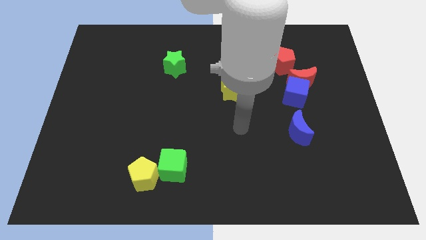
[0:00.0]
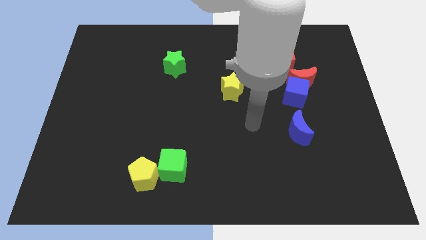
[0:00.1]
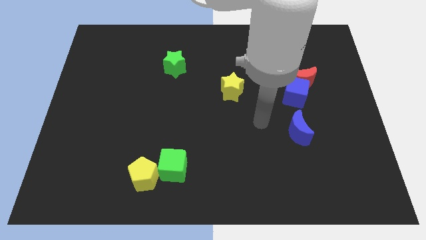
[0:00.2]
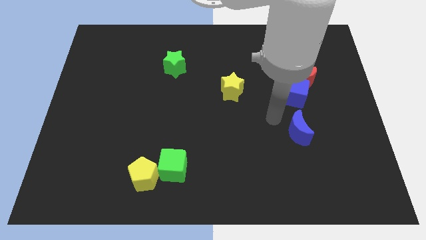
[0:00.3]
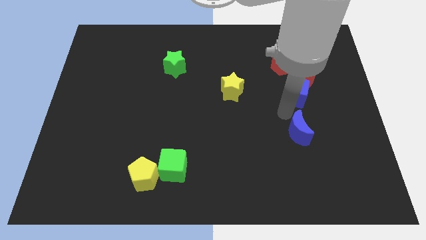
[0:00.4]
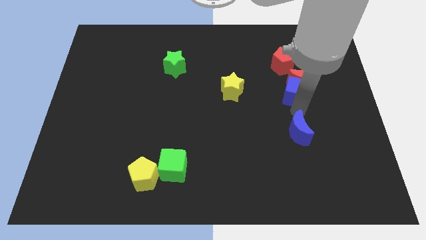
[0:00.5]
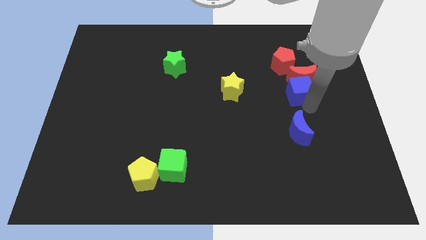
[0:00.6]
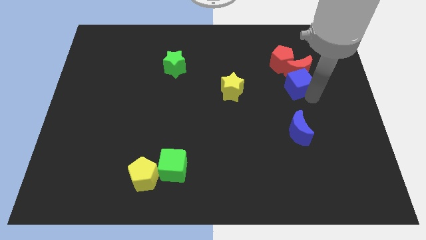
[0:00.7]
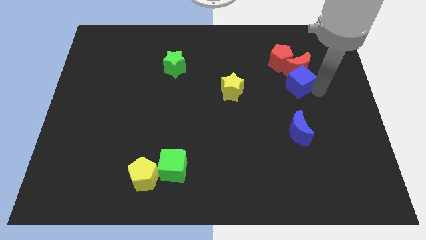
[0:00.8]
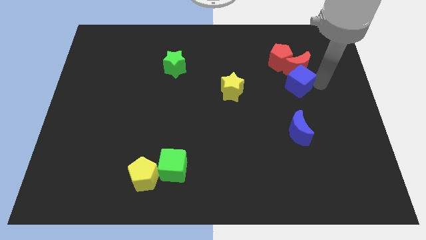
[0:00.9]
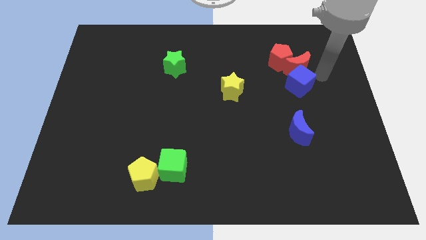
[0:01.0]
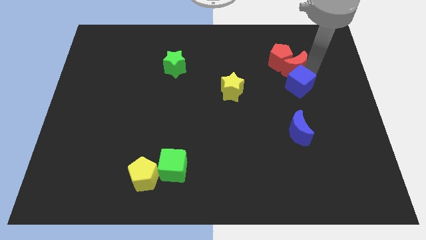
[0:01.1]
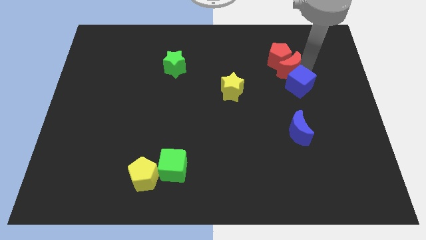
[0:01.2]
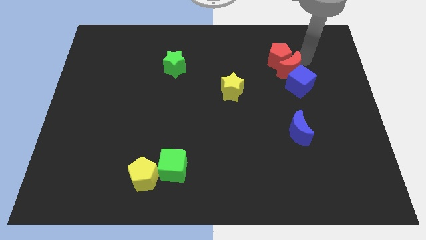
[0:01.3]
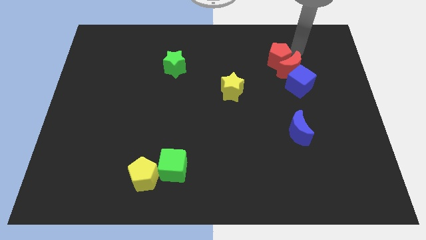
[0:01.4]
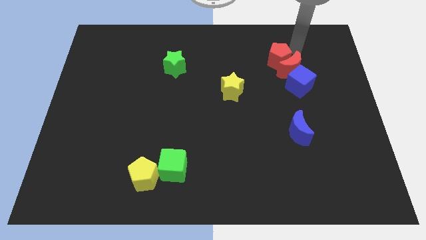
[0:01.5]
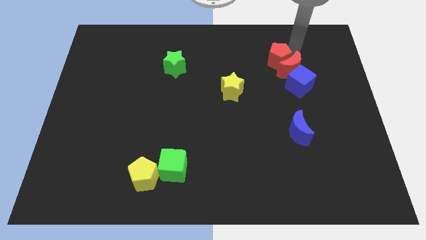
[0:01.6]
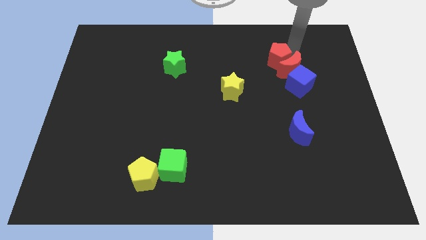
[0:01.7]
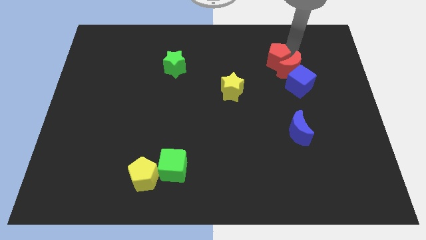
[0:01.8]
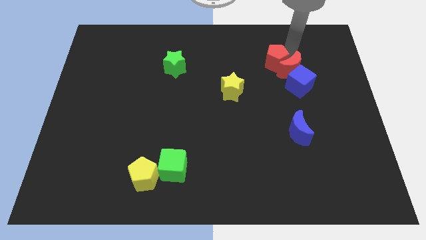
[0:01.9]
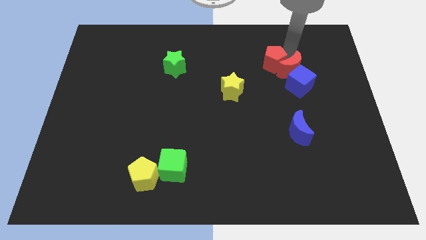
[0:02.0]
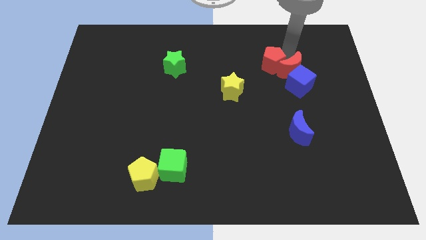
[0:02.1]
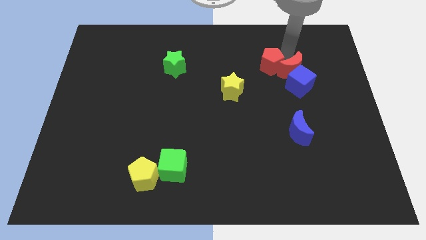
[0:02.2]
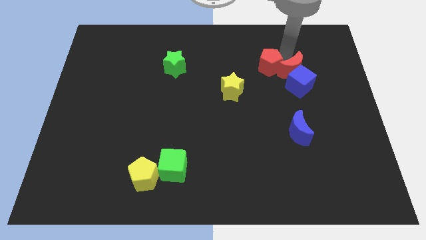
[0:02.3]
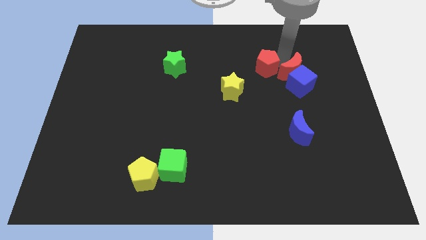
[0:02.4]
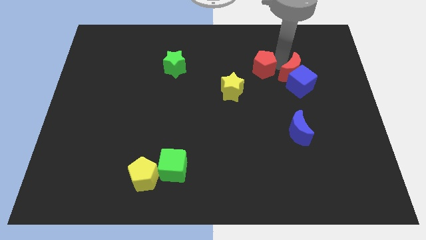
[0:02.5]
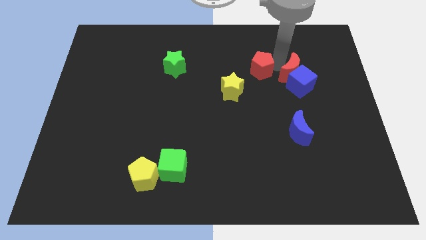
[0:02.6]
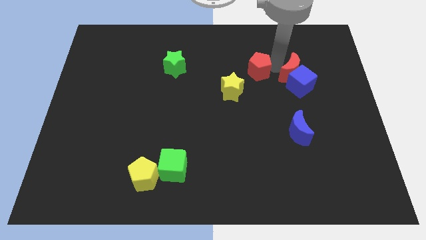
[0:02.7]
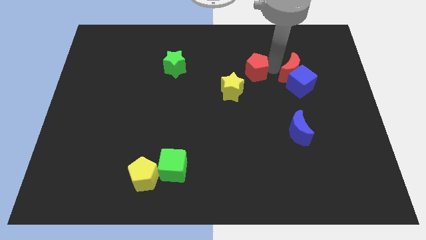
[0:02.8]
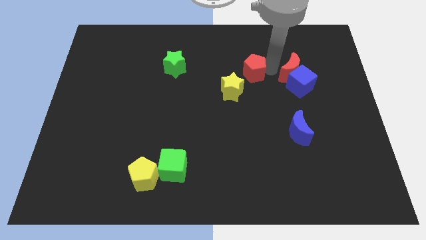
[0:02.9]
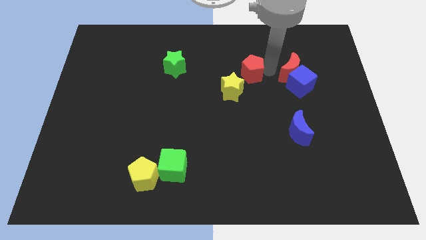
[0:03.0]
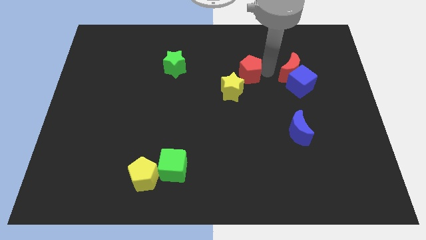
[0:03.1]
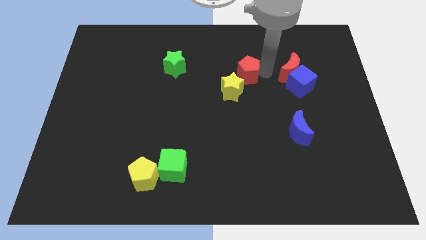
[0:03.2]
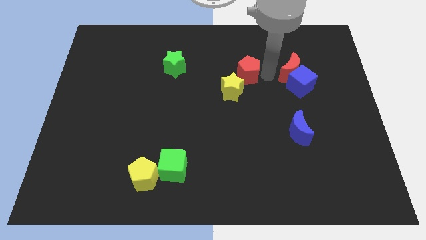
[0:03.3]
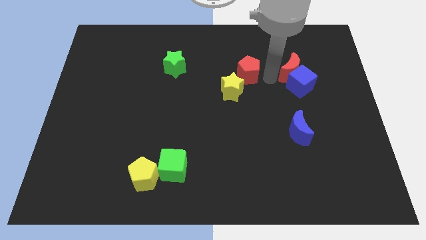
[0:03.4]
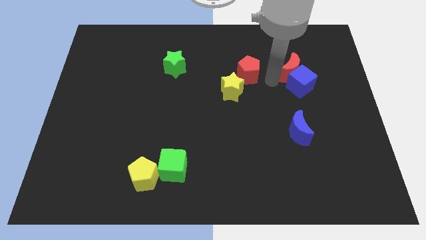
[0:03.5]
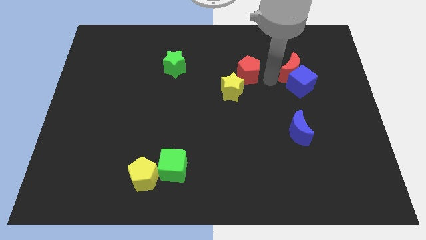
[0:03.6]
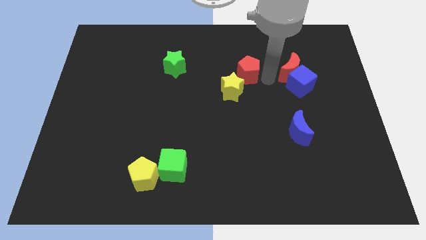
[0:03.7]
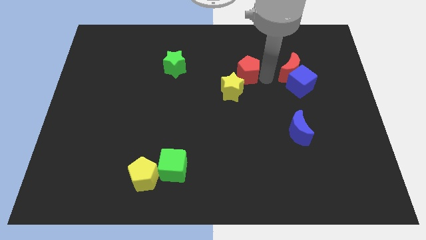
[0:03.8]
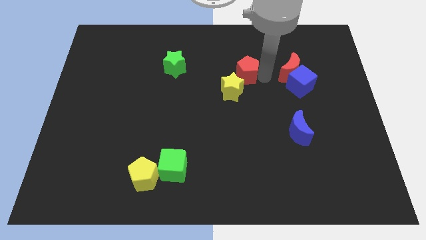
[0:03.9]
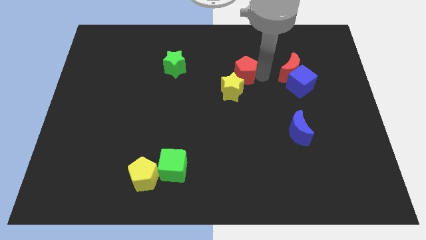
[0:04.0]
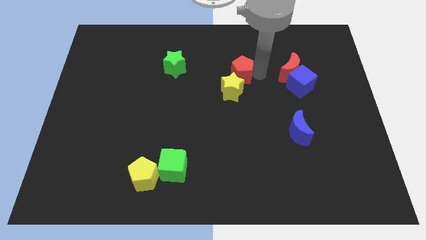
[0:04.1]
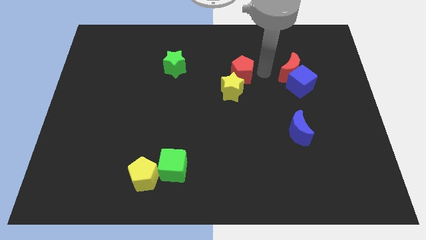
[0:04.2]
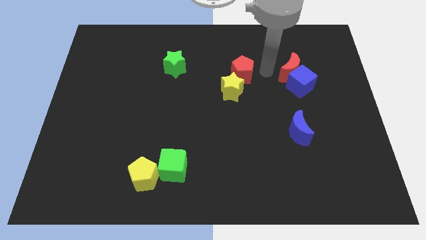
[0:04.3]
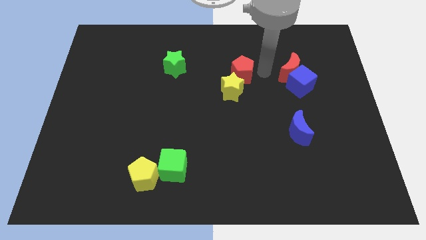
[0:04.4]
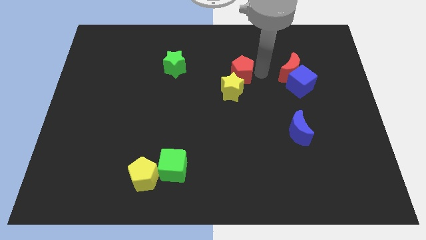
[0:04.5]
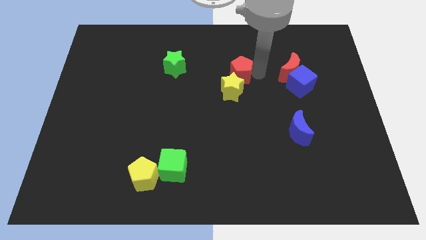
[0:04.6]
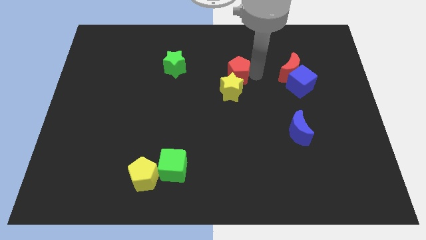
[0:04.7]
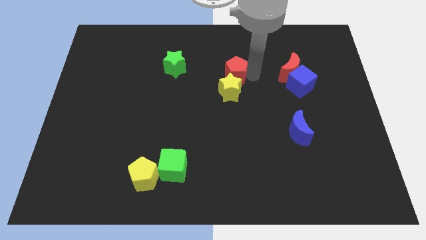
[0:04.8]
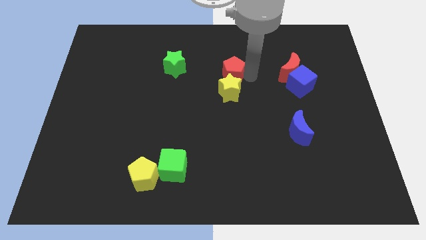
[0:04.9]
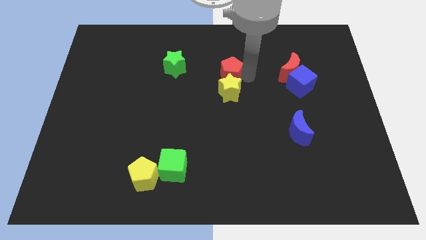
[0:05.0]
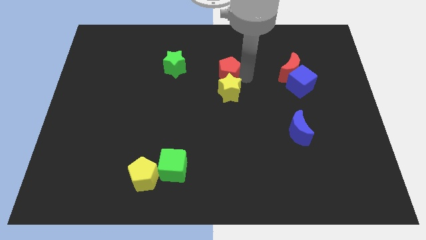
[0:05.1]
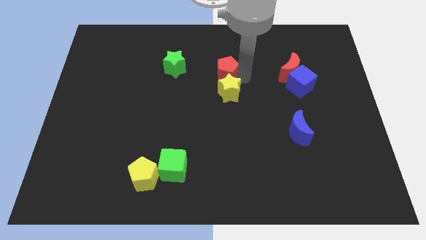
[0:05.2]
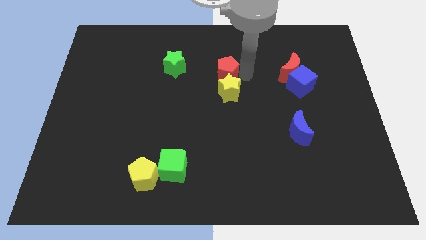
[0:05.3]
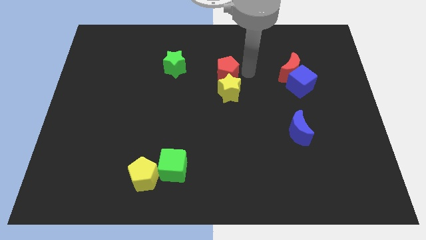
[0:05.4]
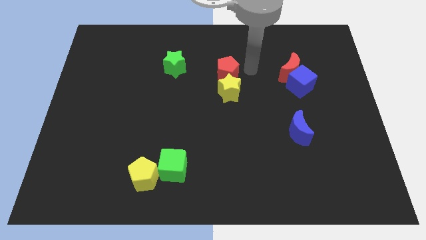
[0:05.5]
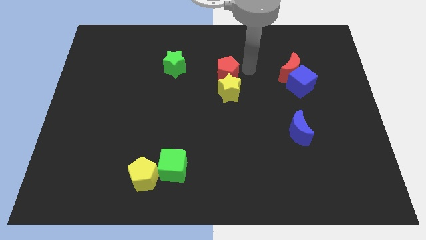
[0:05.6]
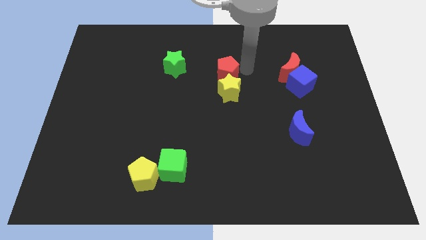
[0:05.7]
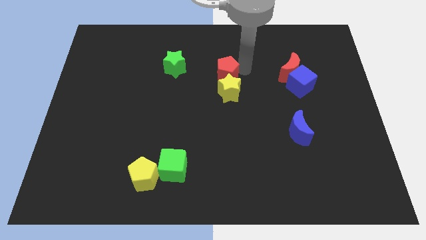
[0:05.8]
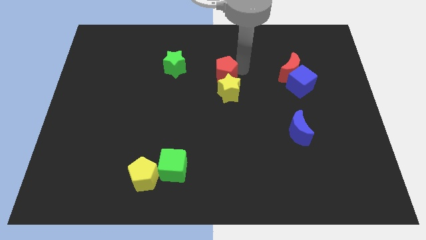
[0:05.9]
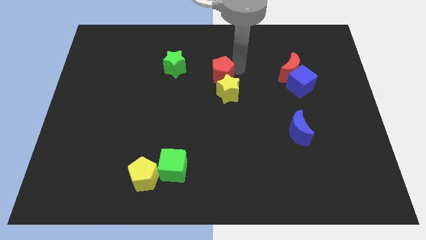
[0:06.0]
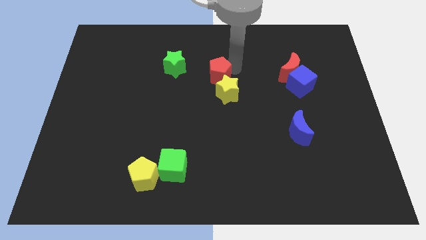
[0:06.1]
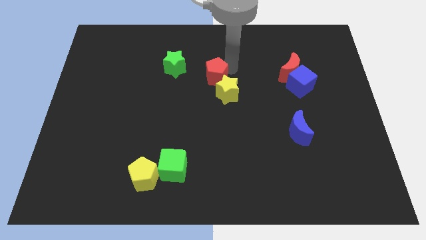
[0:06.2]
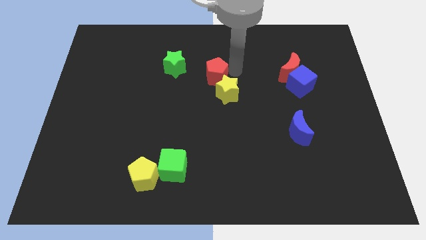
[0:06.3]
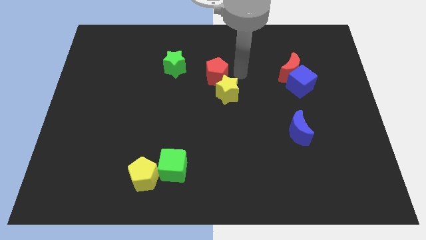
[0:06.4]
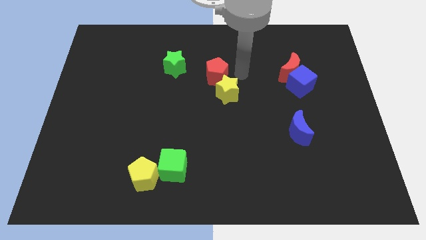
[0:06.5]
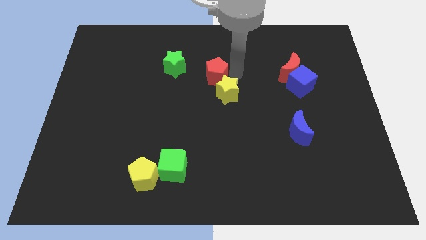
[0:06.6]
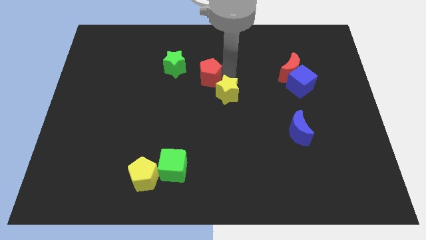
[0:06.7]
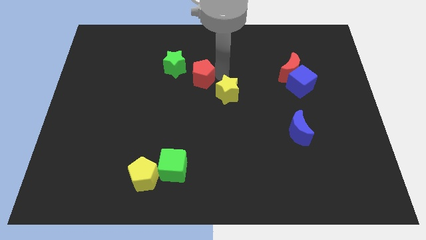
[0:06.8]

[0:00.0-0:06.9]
move the red pentagon to the left

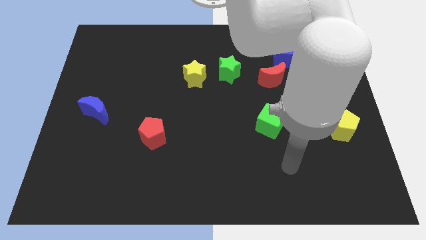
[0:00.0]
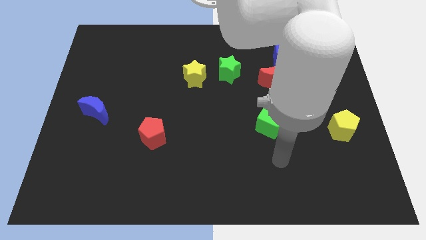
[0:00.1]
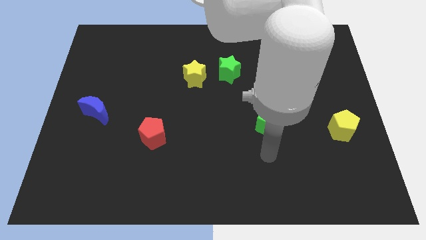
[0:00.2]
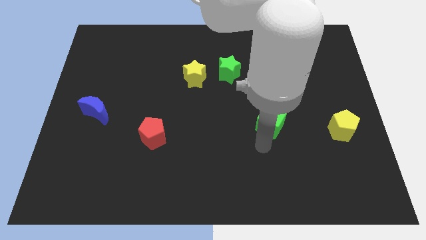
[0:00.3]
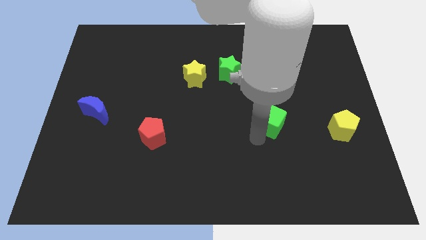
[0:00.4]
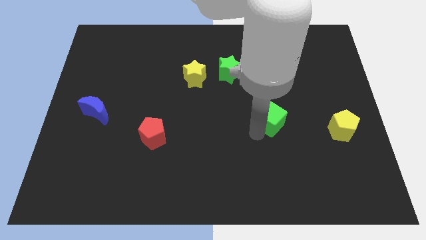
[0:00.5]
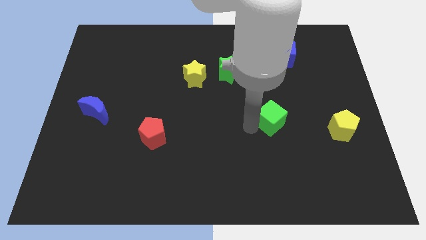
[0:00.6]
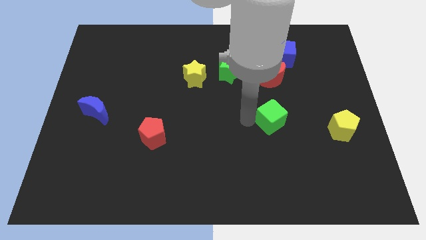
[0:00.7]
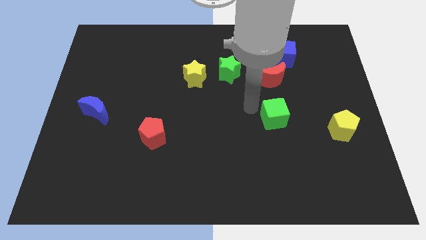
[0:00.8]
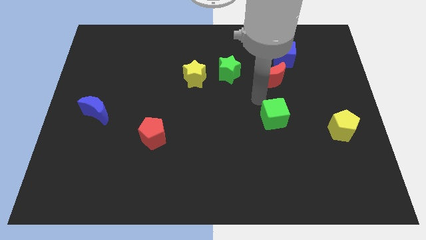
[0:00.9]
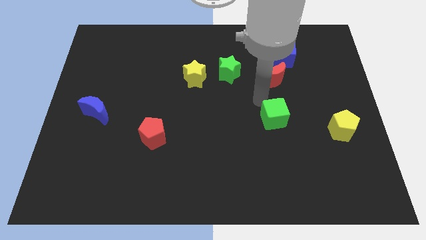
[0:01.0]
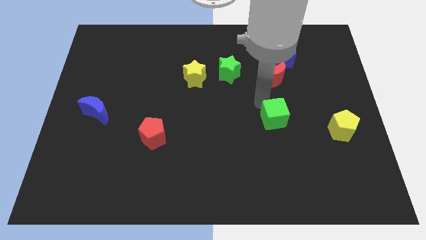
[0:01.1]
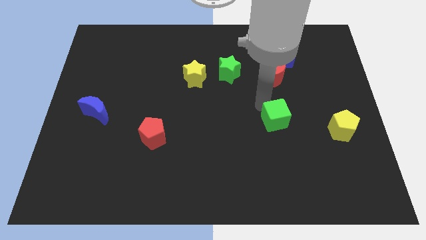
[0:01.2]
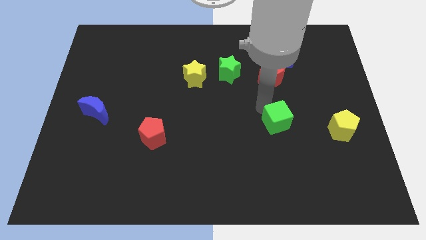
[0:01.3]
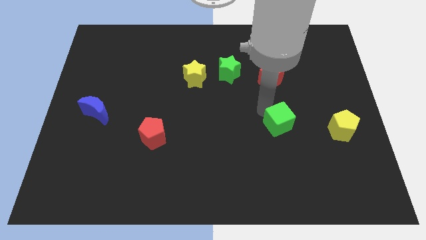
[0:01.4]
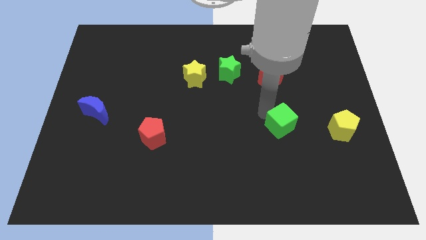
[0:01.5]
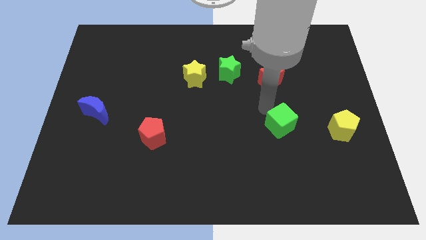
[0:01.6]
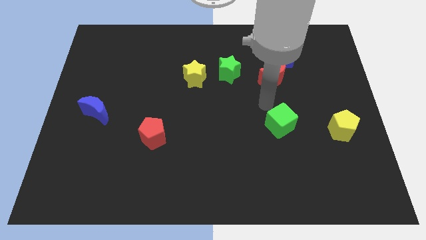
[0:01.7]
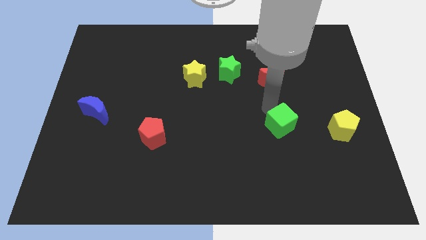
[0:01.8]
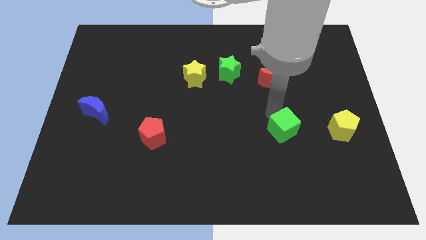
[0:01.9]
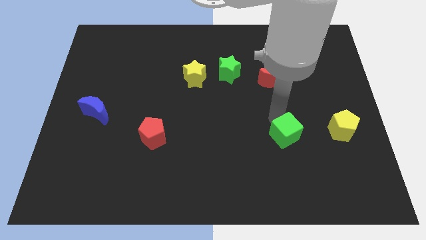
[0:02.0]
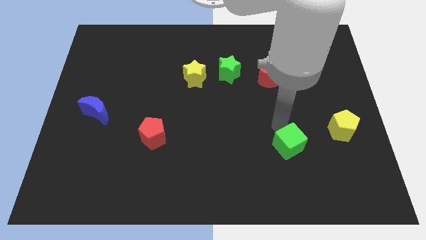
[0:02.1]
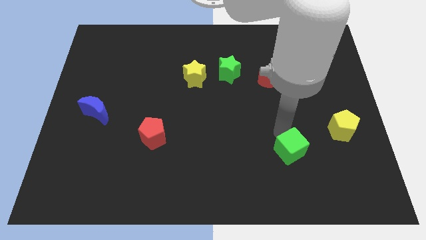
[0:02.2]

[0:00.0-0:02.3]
move the green cube down and then to the right a bit
